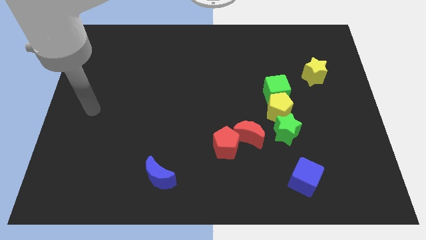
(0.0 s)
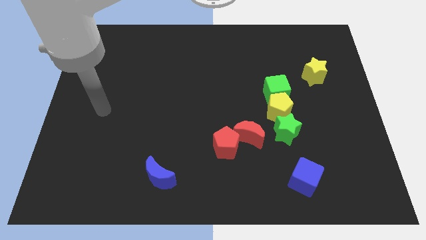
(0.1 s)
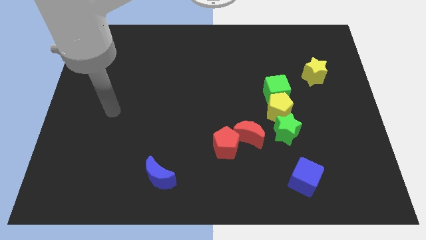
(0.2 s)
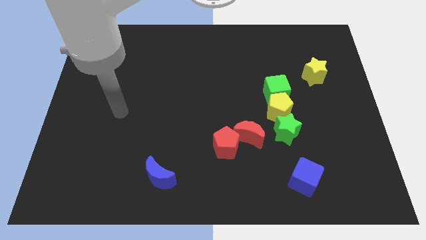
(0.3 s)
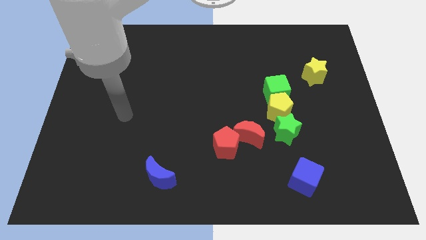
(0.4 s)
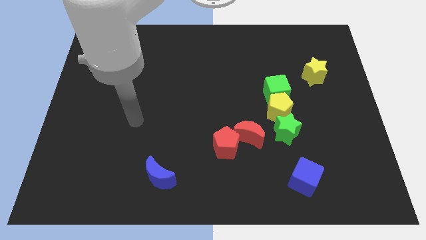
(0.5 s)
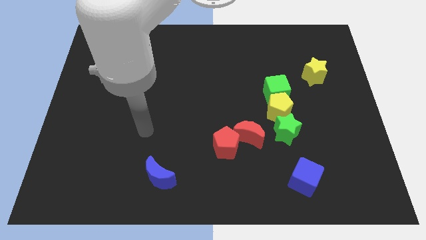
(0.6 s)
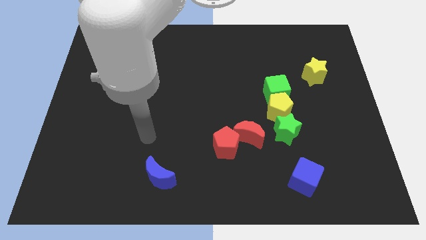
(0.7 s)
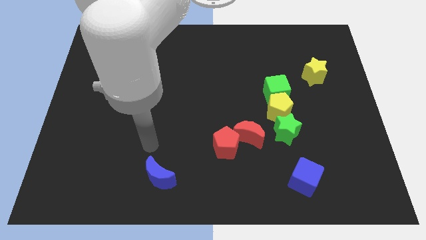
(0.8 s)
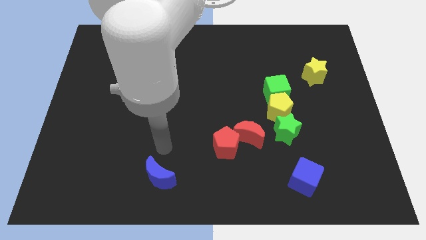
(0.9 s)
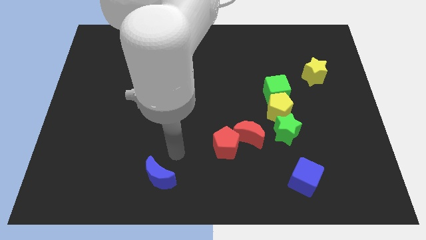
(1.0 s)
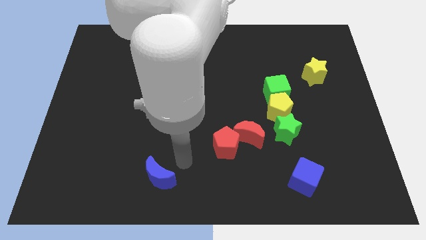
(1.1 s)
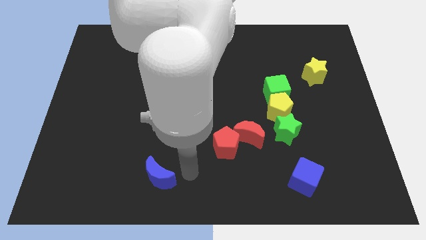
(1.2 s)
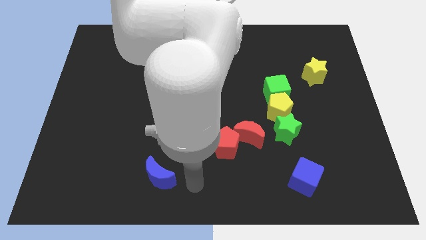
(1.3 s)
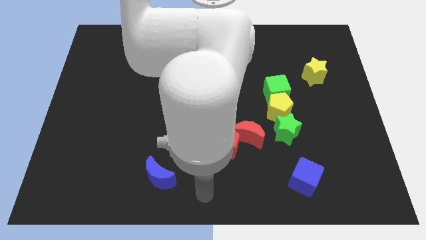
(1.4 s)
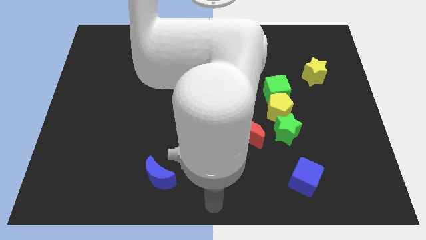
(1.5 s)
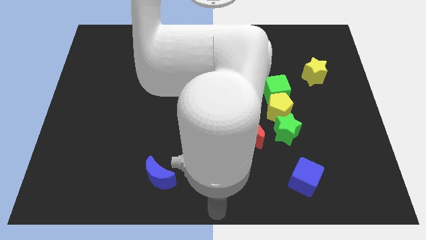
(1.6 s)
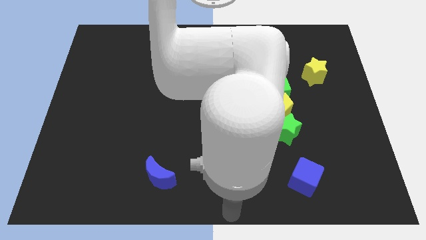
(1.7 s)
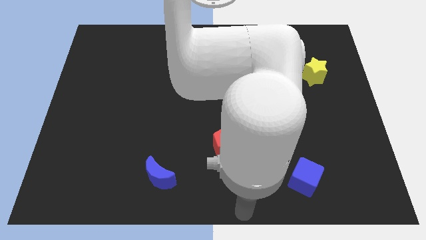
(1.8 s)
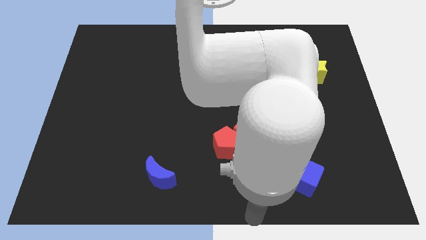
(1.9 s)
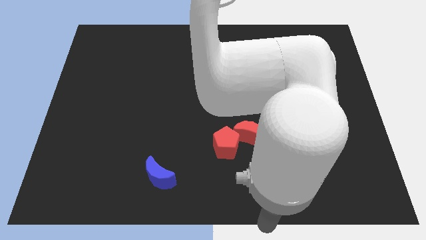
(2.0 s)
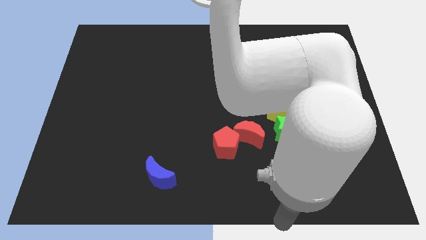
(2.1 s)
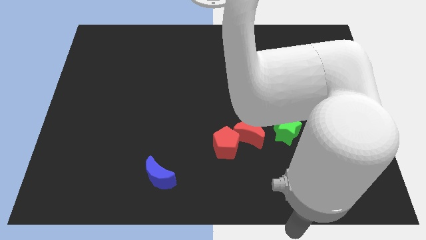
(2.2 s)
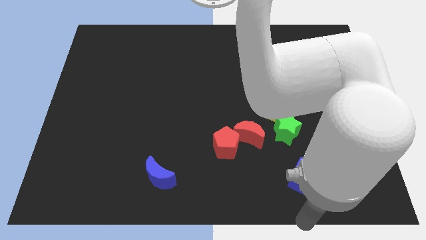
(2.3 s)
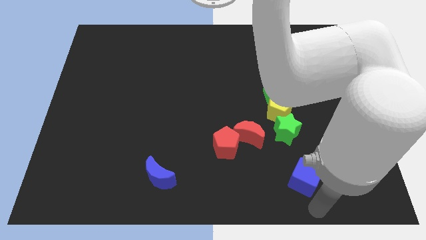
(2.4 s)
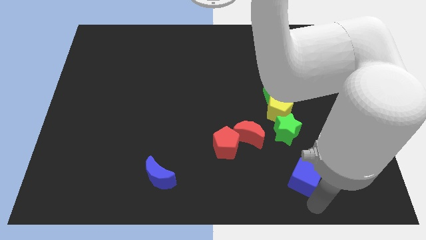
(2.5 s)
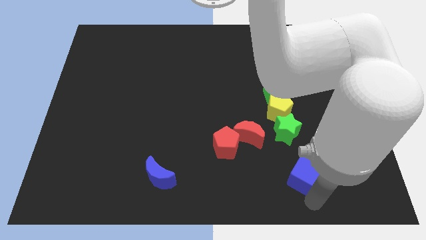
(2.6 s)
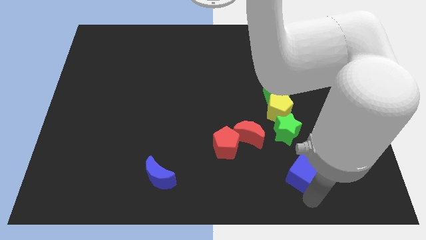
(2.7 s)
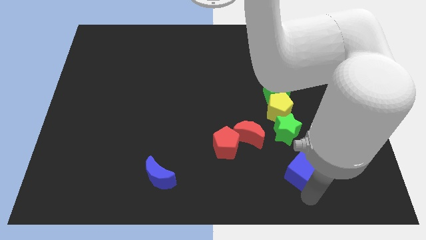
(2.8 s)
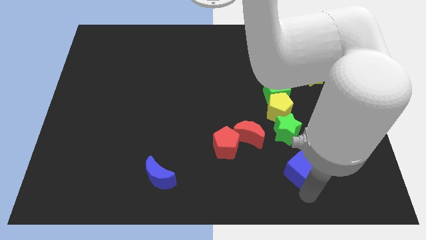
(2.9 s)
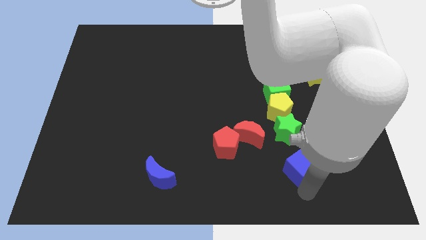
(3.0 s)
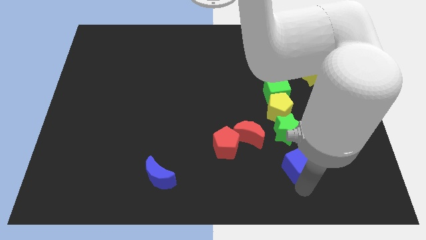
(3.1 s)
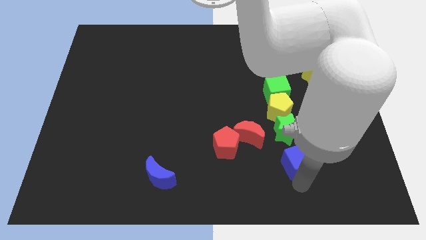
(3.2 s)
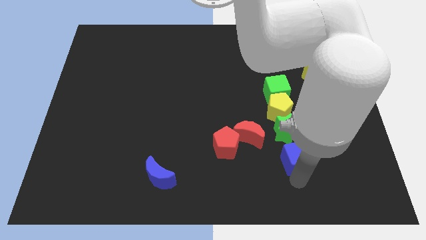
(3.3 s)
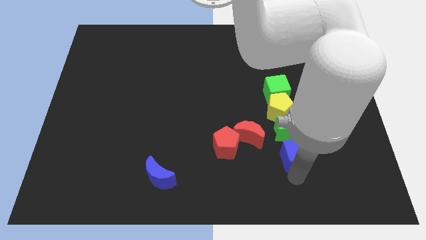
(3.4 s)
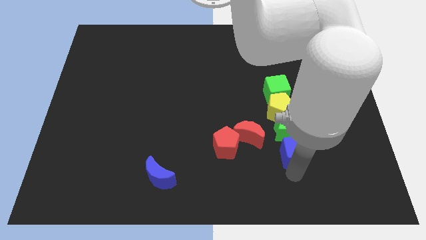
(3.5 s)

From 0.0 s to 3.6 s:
slide the blue cube close to the green star

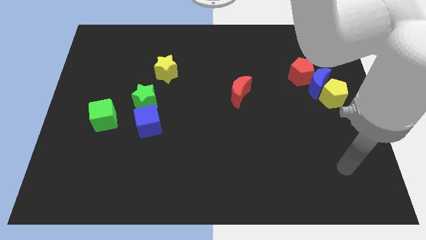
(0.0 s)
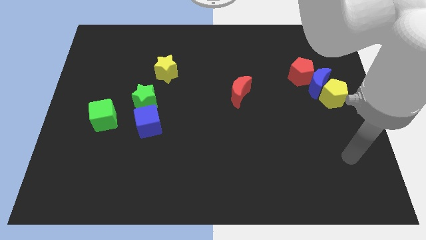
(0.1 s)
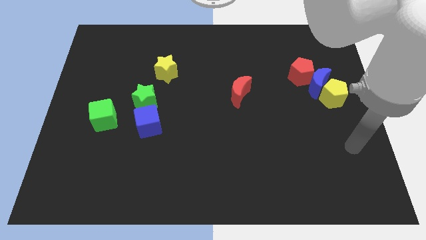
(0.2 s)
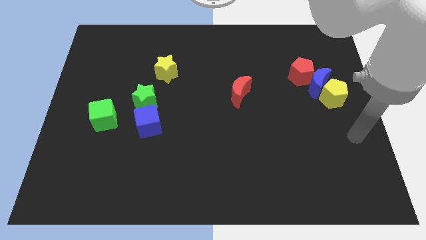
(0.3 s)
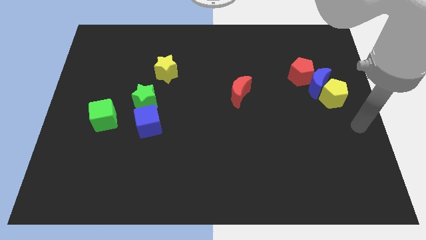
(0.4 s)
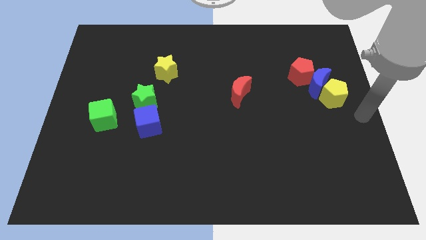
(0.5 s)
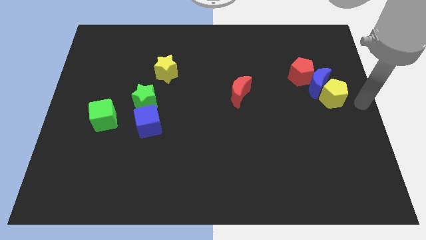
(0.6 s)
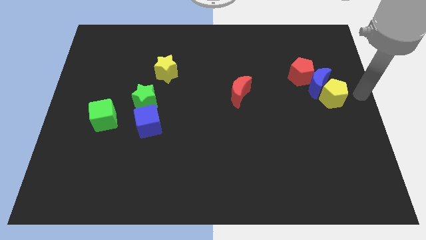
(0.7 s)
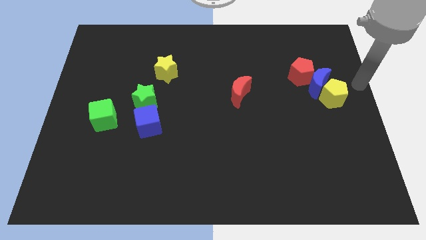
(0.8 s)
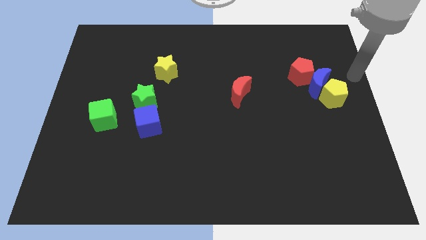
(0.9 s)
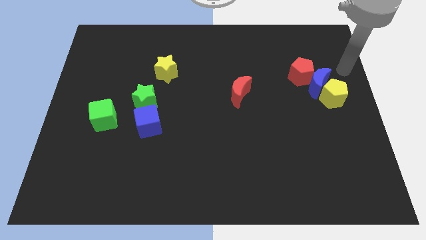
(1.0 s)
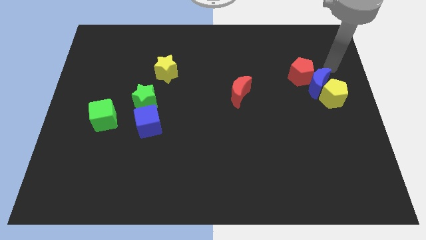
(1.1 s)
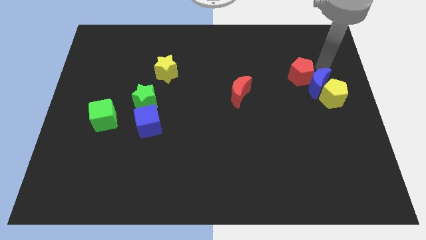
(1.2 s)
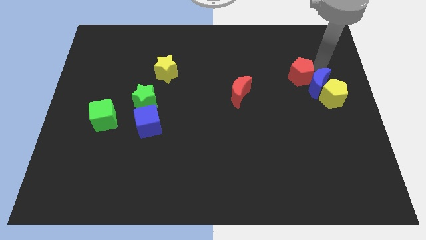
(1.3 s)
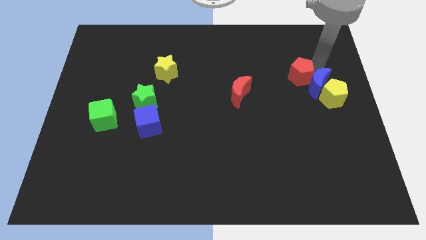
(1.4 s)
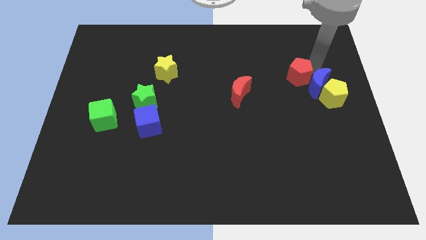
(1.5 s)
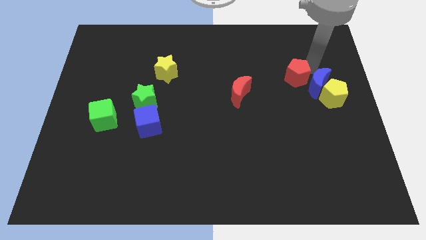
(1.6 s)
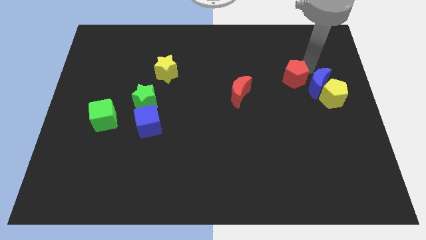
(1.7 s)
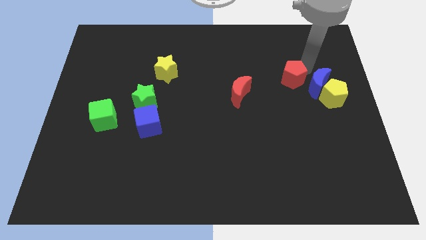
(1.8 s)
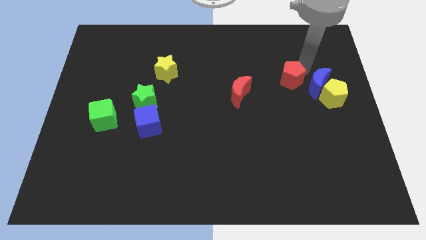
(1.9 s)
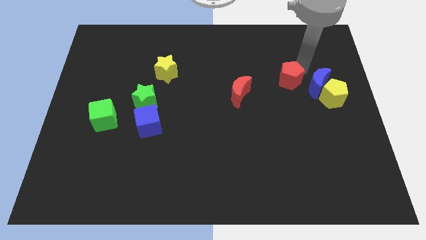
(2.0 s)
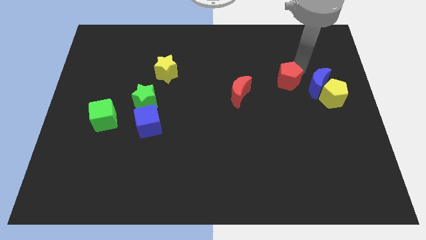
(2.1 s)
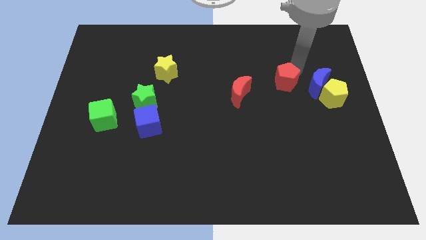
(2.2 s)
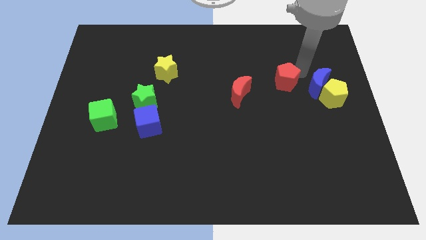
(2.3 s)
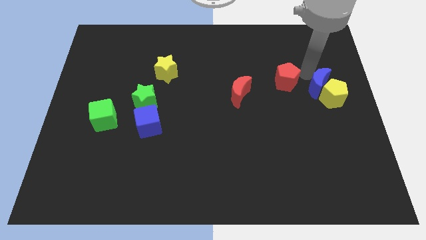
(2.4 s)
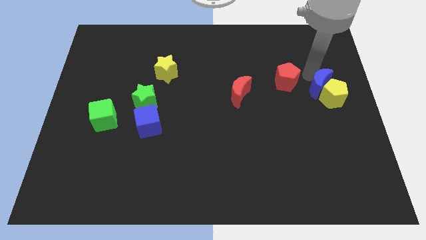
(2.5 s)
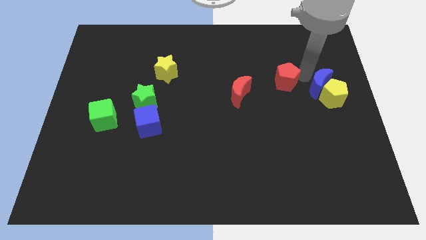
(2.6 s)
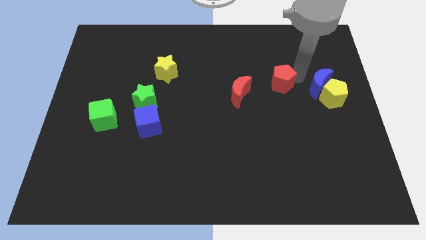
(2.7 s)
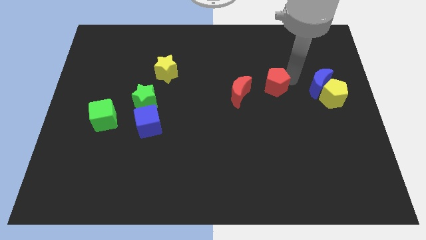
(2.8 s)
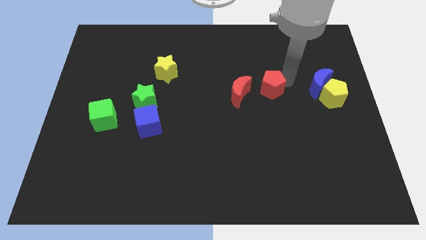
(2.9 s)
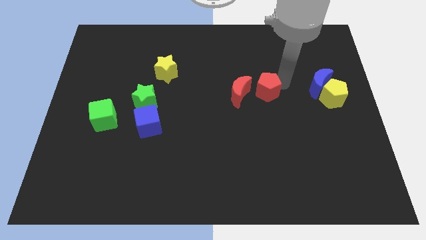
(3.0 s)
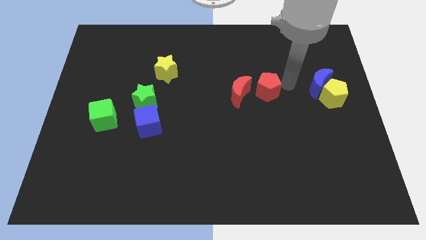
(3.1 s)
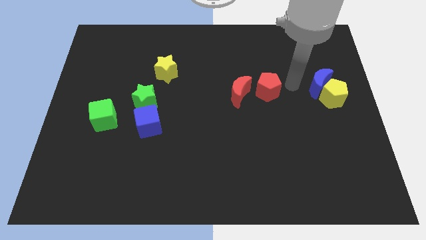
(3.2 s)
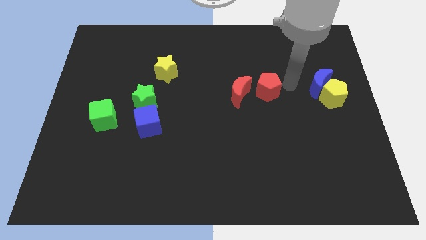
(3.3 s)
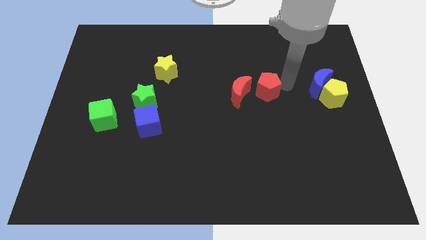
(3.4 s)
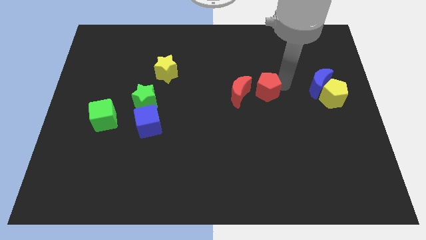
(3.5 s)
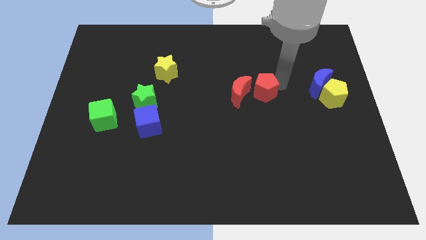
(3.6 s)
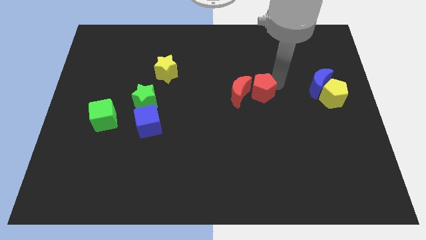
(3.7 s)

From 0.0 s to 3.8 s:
slide the red pentagon to the red moon
